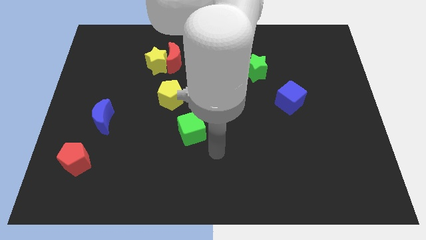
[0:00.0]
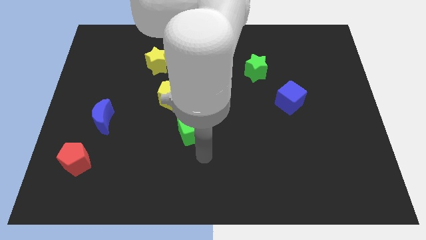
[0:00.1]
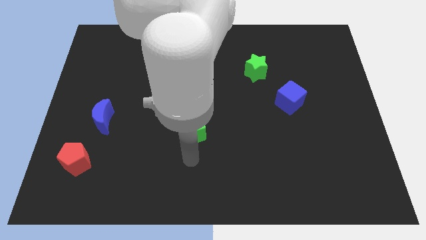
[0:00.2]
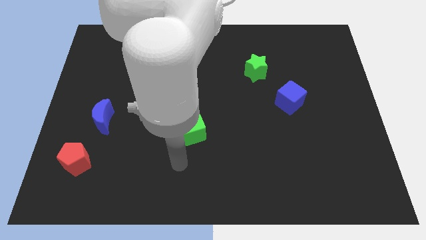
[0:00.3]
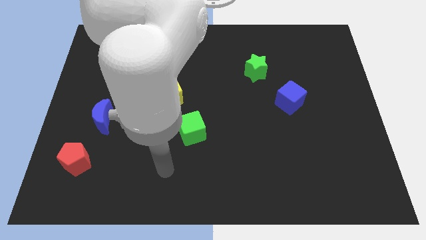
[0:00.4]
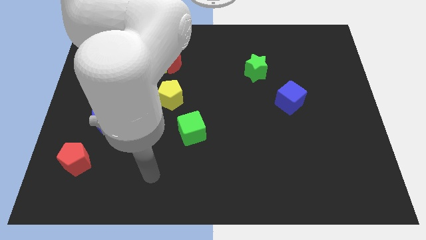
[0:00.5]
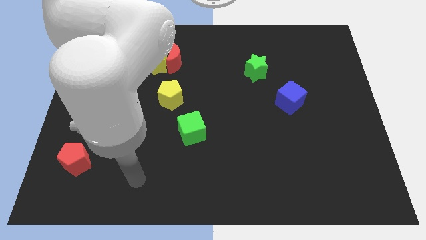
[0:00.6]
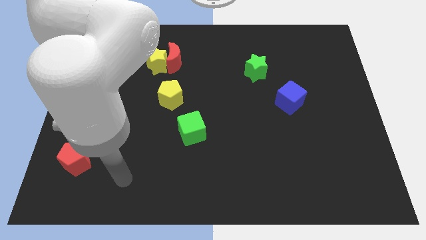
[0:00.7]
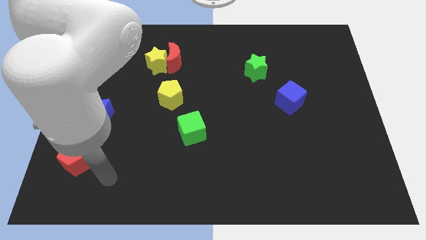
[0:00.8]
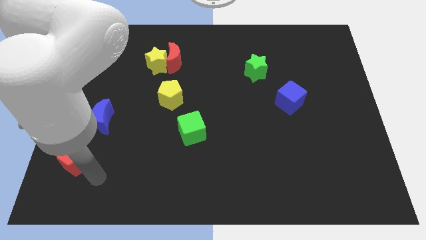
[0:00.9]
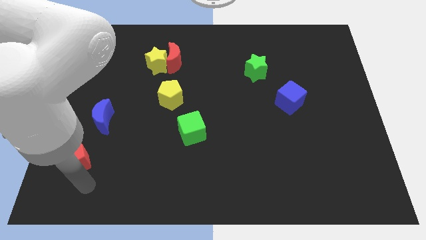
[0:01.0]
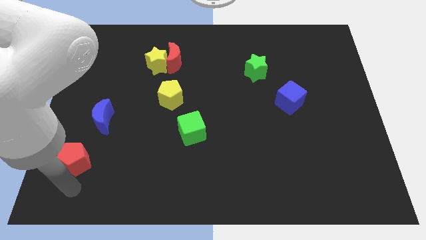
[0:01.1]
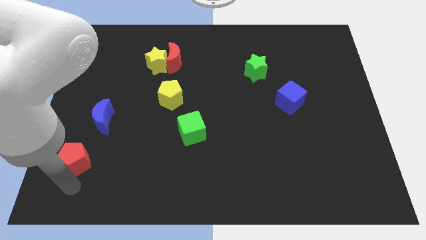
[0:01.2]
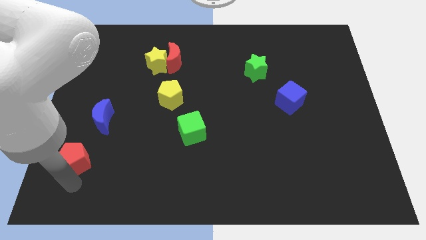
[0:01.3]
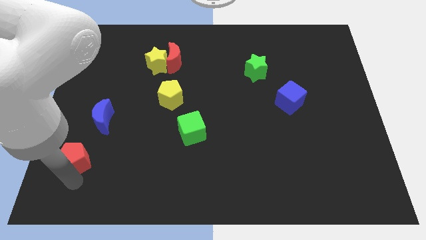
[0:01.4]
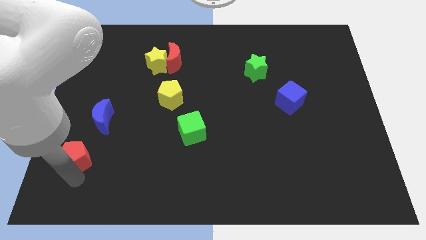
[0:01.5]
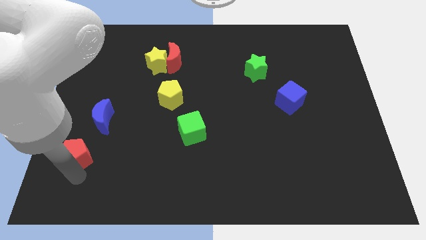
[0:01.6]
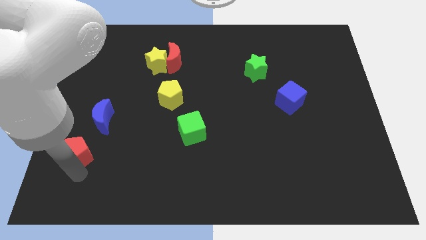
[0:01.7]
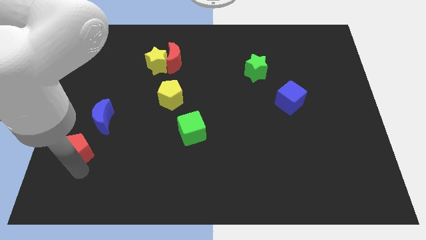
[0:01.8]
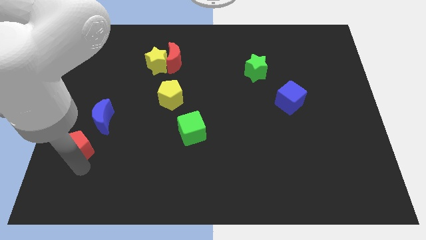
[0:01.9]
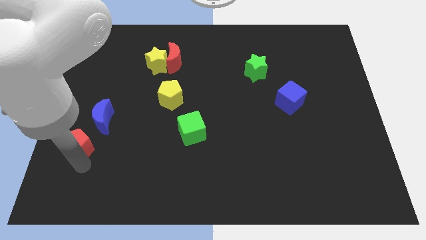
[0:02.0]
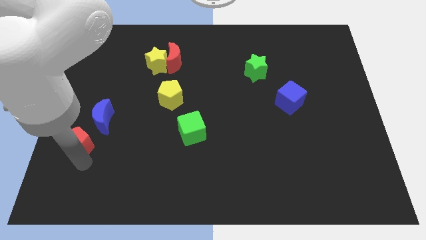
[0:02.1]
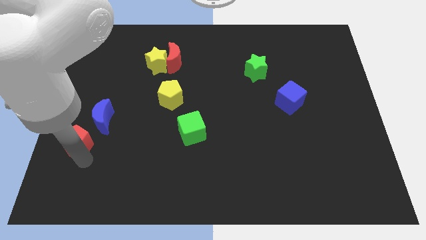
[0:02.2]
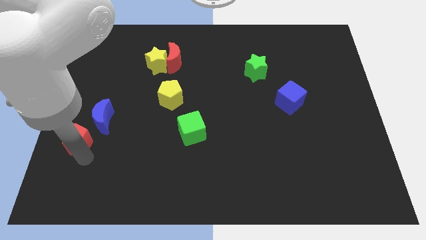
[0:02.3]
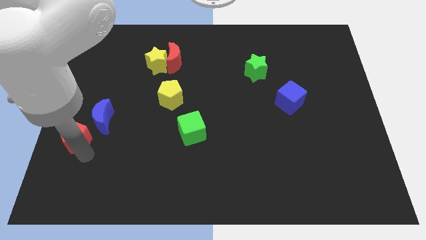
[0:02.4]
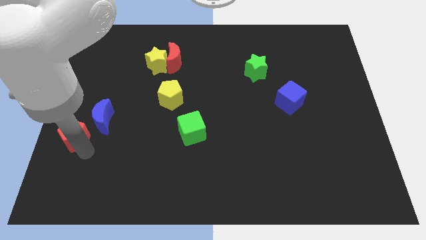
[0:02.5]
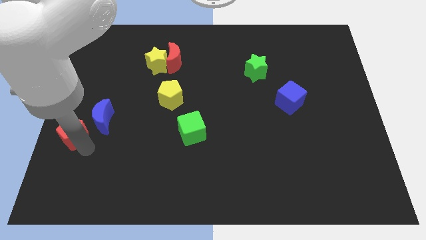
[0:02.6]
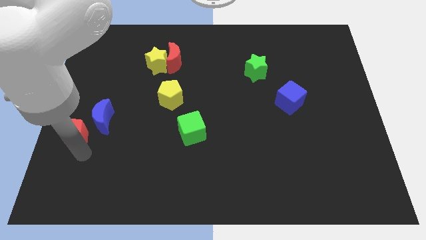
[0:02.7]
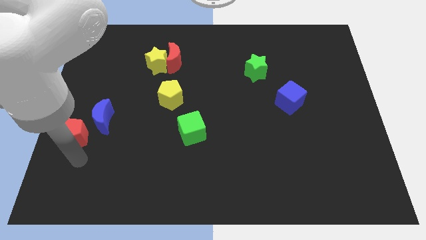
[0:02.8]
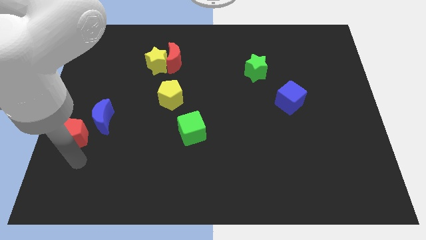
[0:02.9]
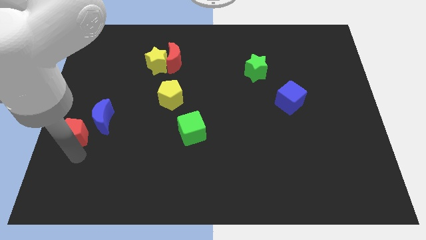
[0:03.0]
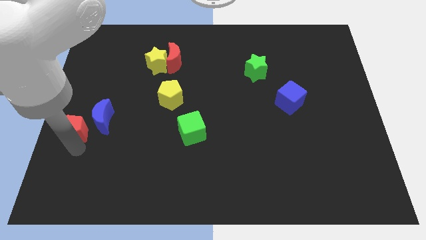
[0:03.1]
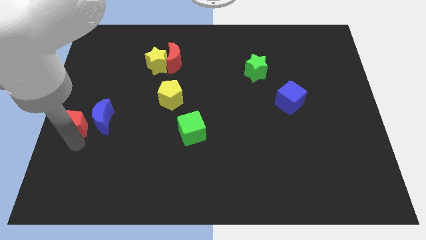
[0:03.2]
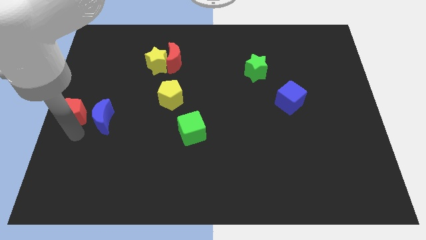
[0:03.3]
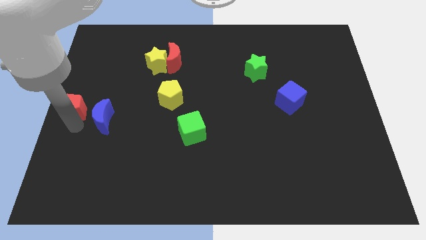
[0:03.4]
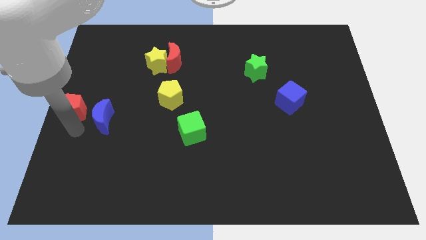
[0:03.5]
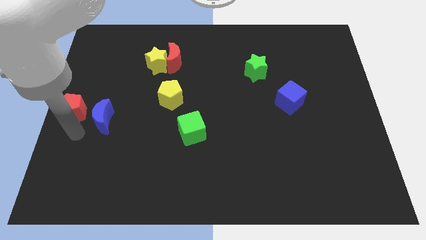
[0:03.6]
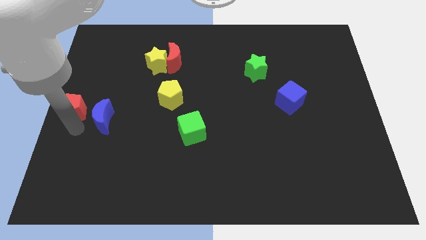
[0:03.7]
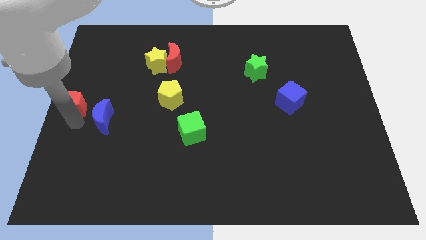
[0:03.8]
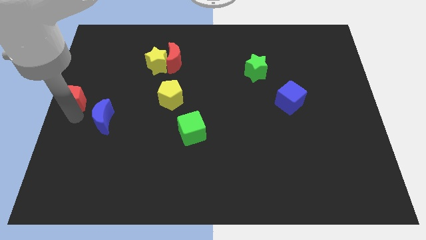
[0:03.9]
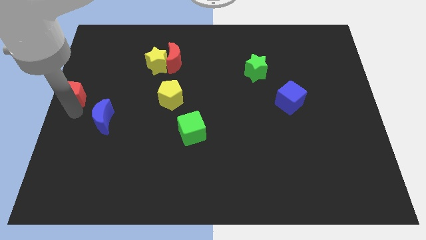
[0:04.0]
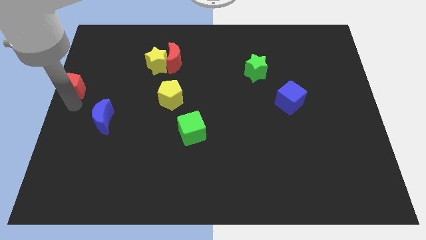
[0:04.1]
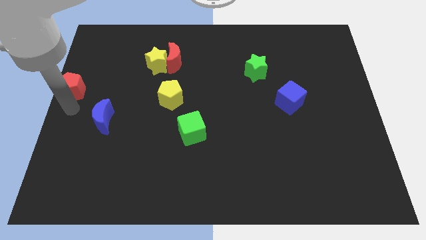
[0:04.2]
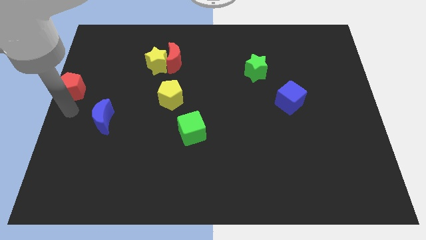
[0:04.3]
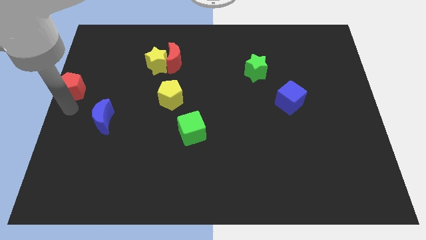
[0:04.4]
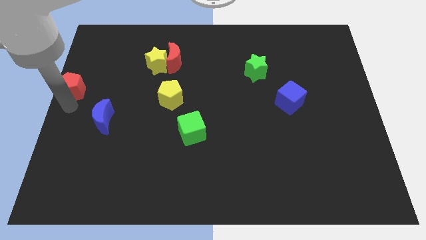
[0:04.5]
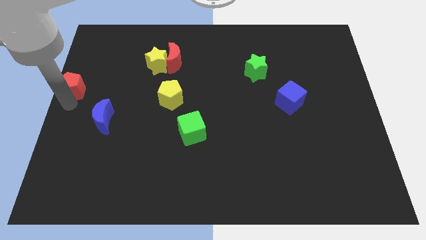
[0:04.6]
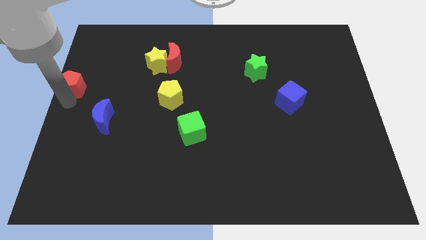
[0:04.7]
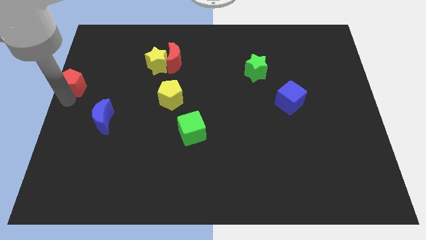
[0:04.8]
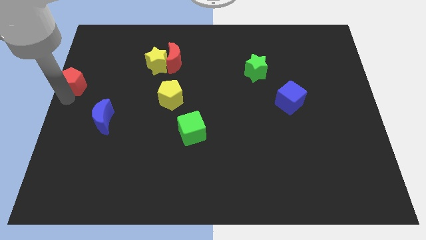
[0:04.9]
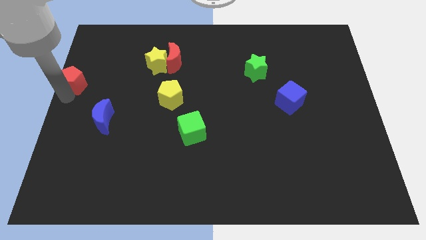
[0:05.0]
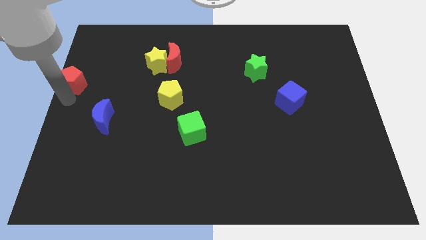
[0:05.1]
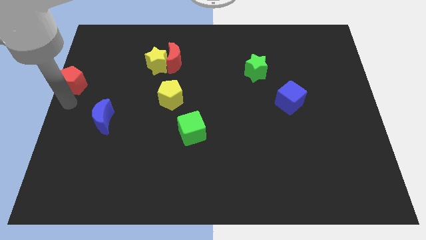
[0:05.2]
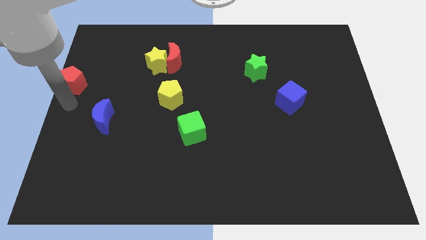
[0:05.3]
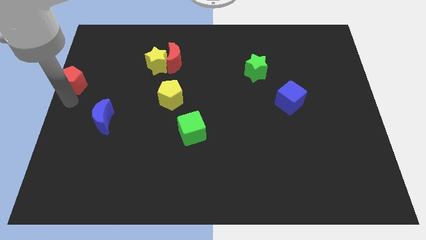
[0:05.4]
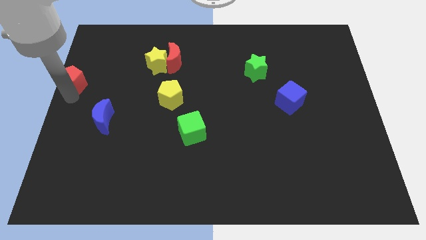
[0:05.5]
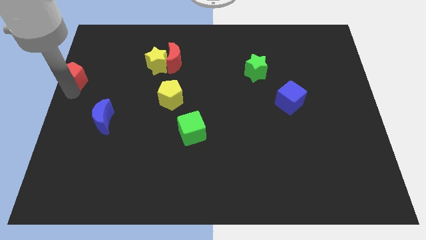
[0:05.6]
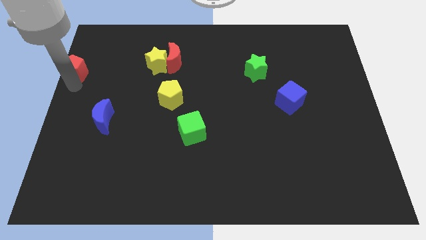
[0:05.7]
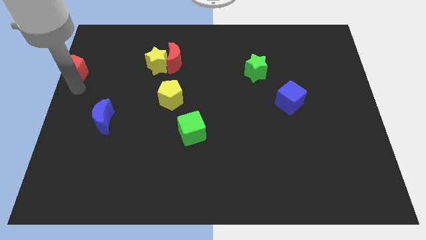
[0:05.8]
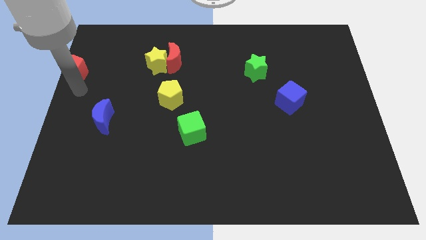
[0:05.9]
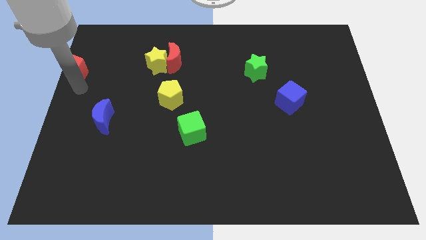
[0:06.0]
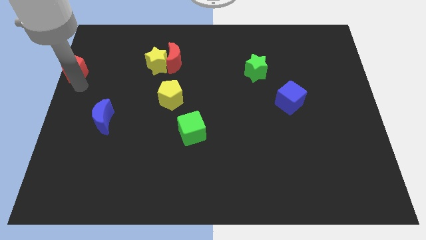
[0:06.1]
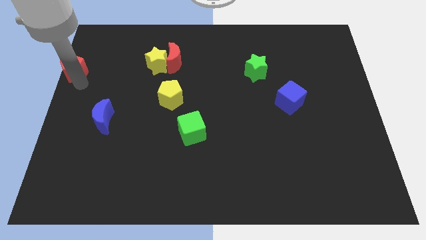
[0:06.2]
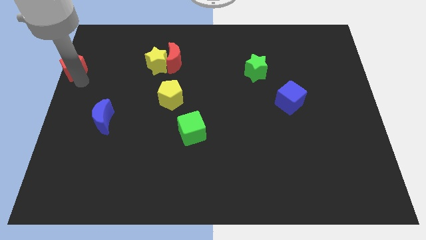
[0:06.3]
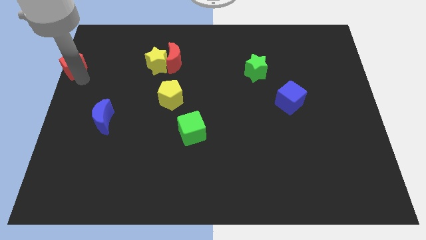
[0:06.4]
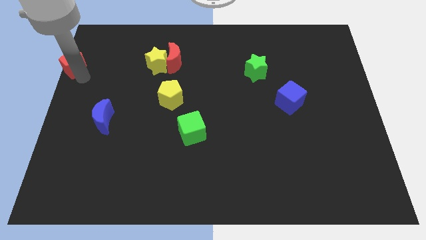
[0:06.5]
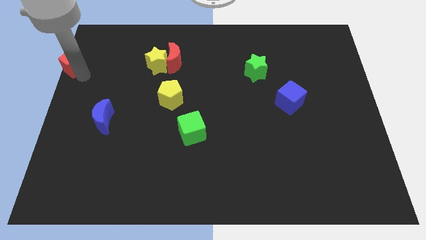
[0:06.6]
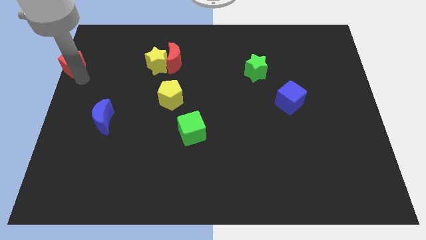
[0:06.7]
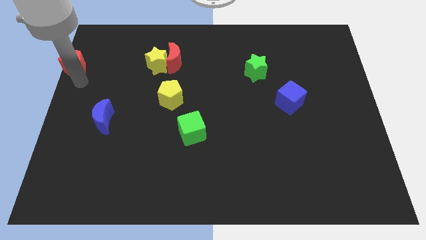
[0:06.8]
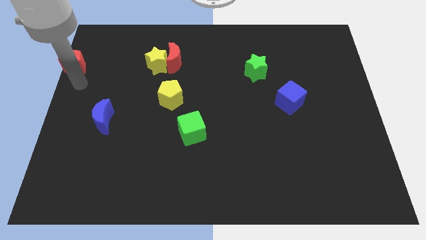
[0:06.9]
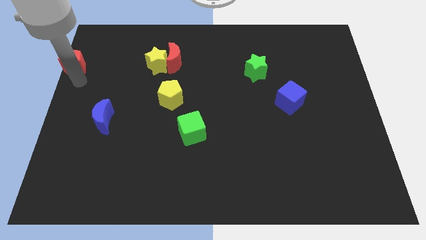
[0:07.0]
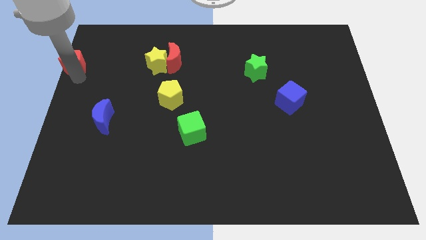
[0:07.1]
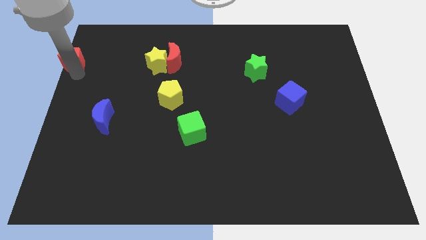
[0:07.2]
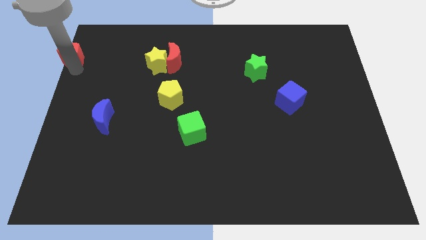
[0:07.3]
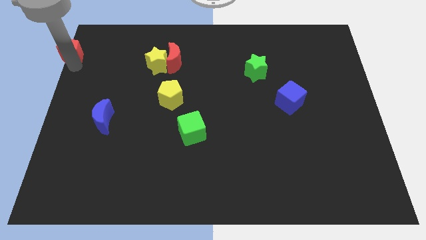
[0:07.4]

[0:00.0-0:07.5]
move the red pentagon to the upper left corner
